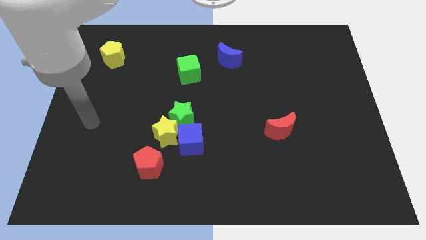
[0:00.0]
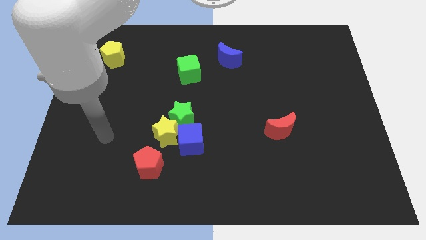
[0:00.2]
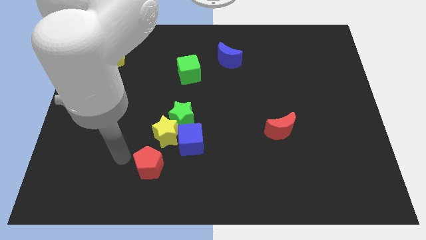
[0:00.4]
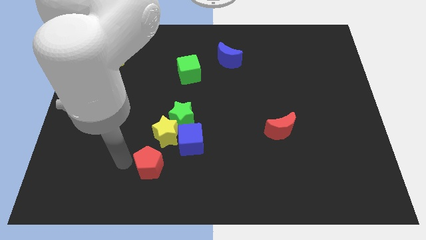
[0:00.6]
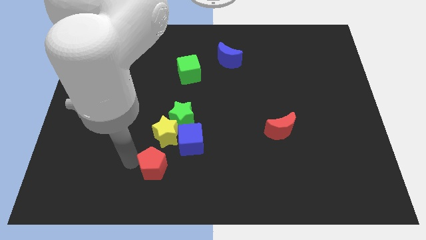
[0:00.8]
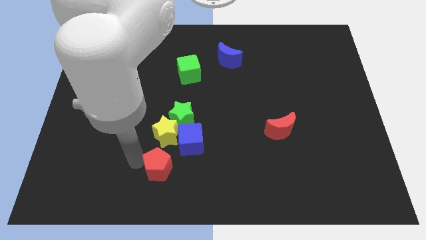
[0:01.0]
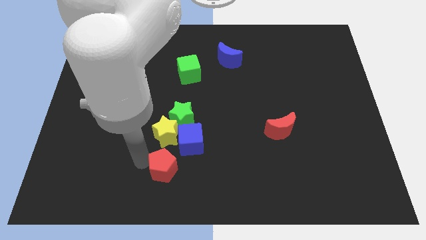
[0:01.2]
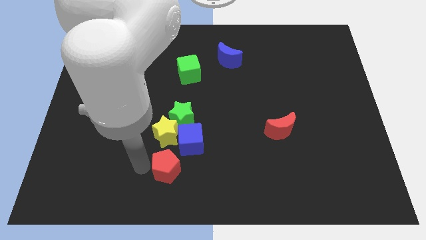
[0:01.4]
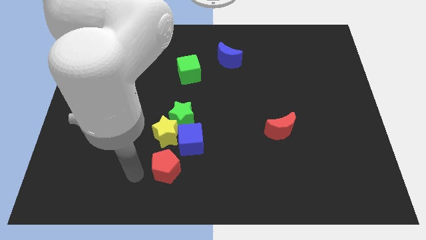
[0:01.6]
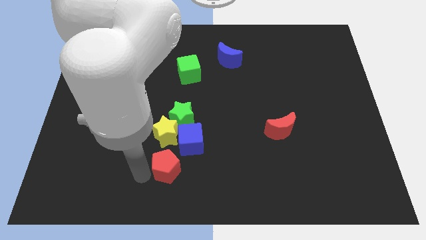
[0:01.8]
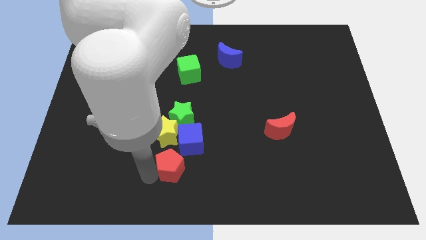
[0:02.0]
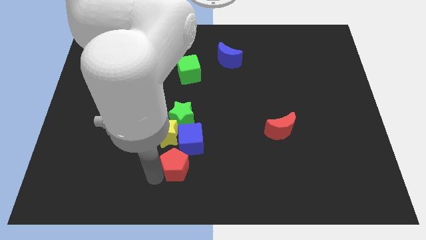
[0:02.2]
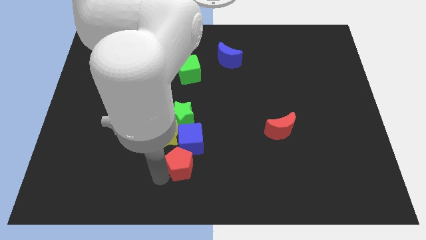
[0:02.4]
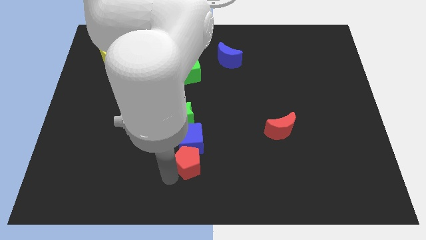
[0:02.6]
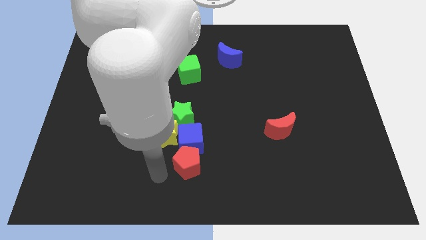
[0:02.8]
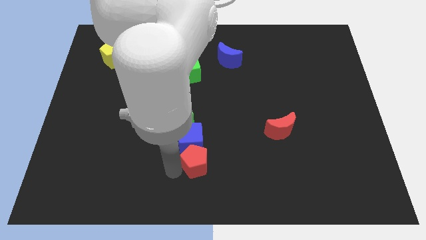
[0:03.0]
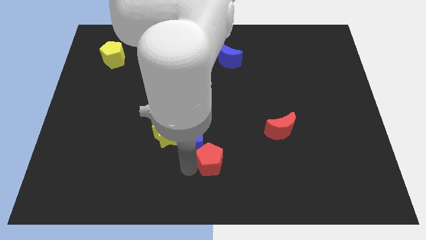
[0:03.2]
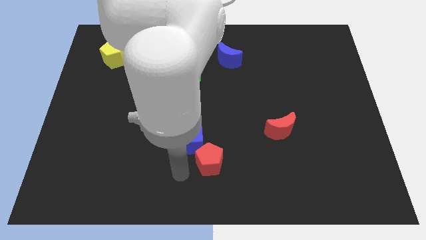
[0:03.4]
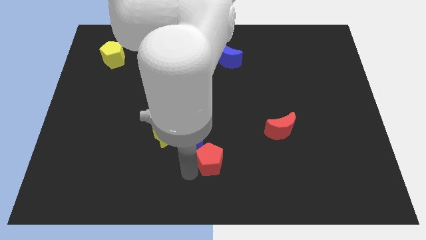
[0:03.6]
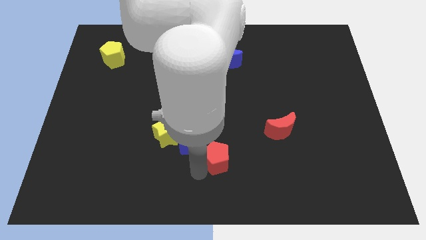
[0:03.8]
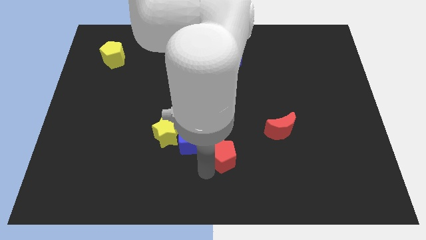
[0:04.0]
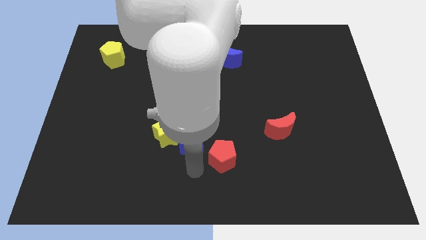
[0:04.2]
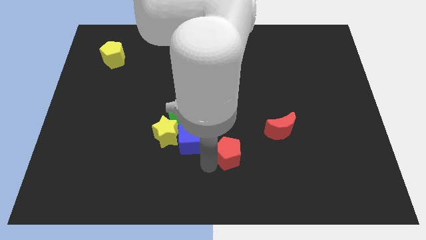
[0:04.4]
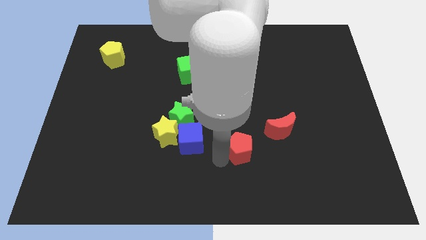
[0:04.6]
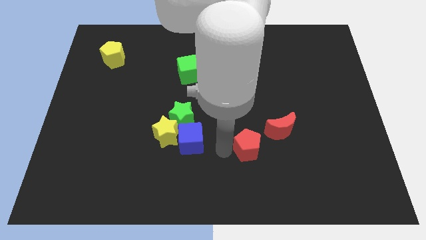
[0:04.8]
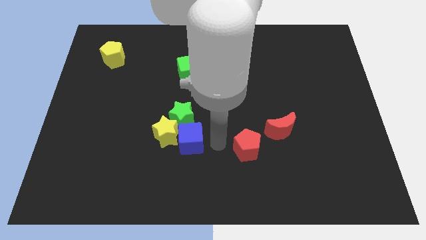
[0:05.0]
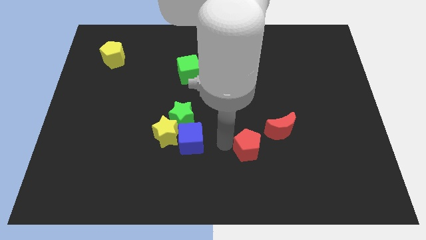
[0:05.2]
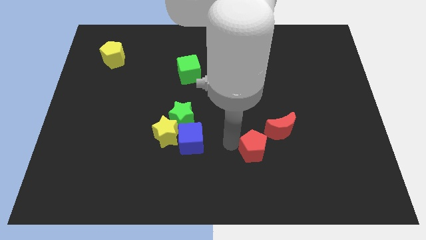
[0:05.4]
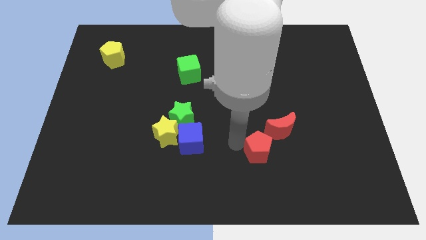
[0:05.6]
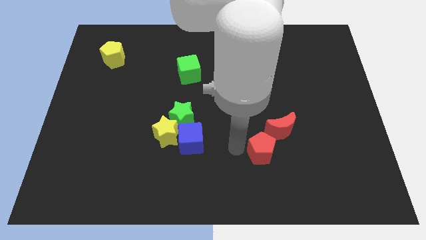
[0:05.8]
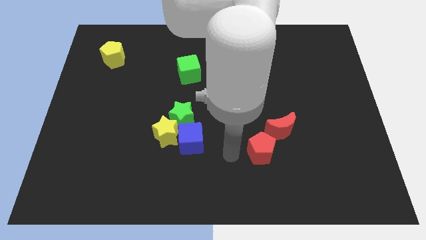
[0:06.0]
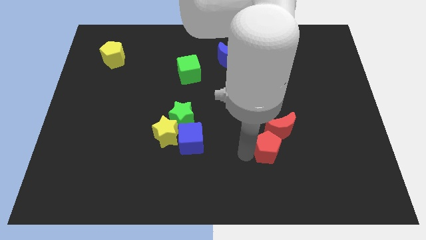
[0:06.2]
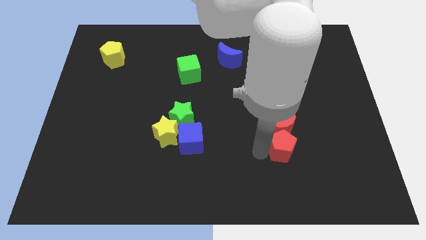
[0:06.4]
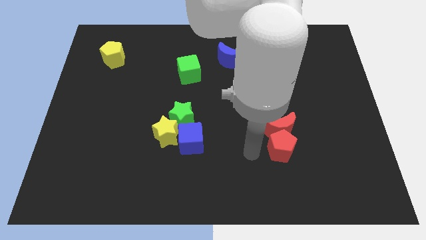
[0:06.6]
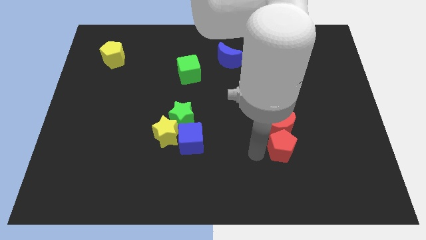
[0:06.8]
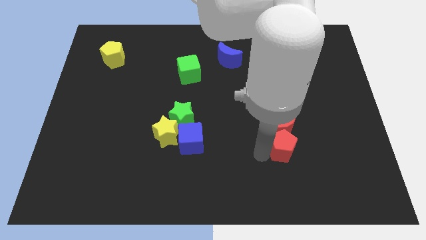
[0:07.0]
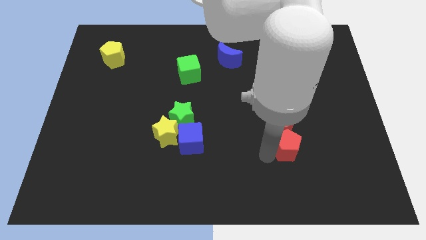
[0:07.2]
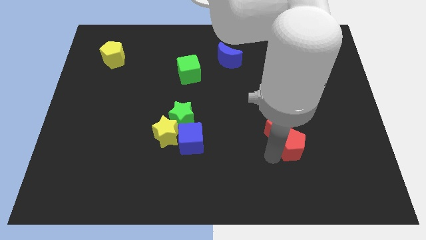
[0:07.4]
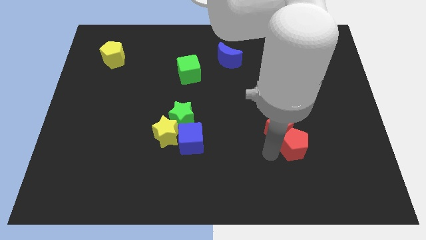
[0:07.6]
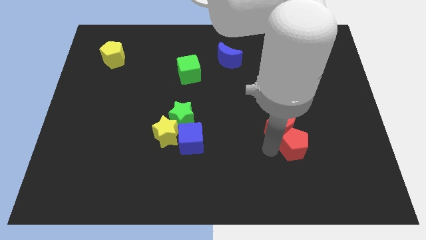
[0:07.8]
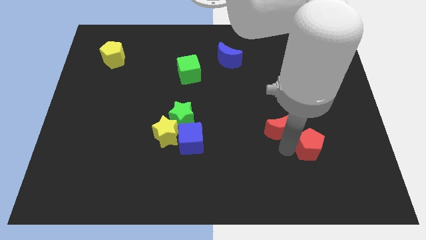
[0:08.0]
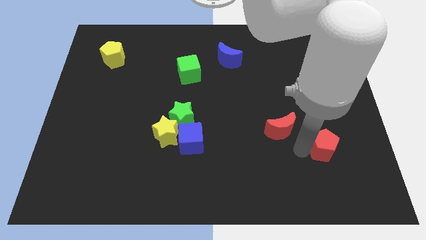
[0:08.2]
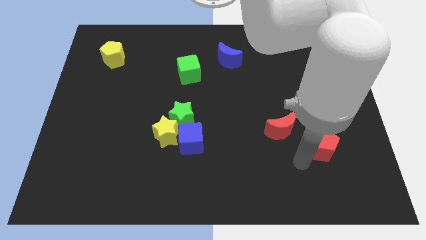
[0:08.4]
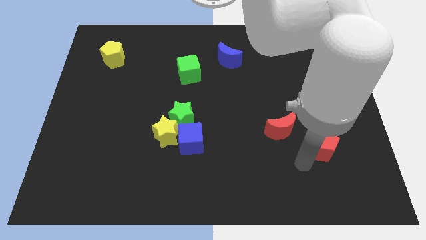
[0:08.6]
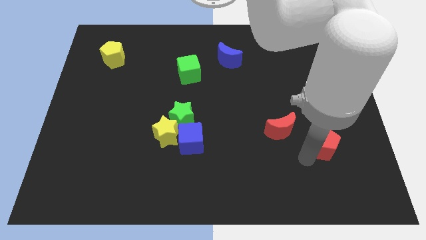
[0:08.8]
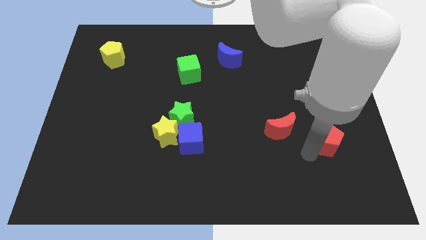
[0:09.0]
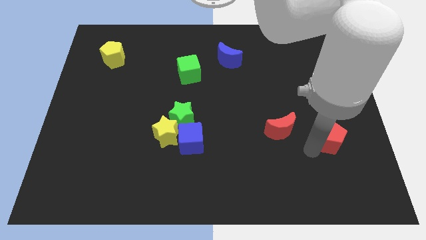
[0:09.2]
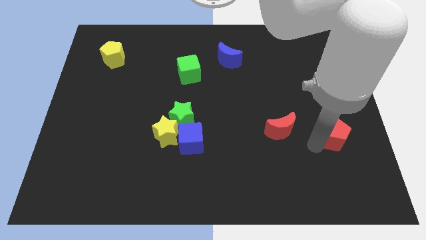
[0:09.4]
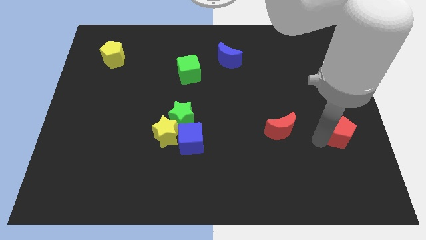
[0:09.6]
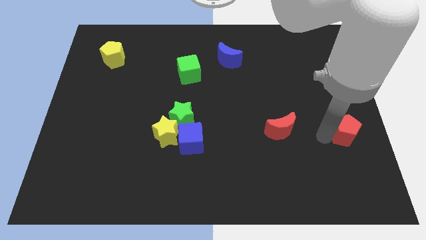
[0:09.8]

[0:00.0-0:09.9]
push the red pentagon to the center right

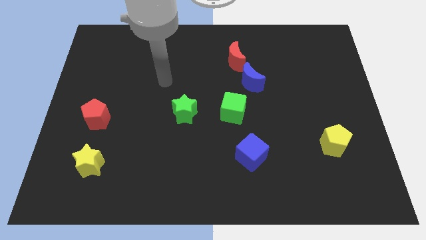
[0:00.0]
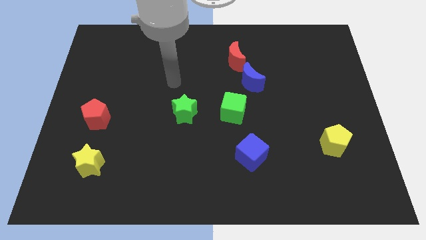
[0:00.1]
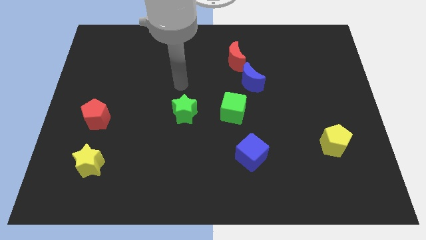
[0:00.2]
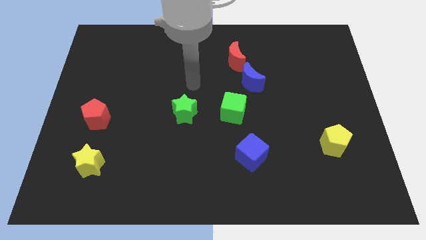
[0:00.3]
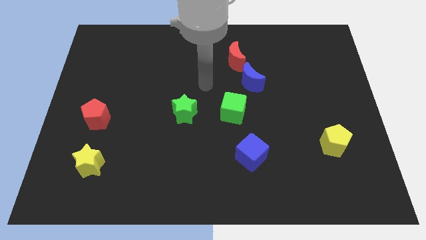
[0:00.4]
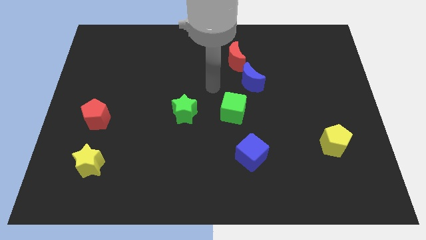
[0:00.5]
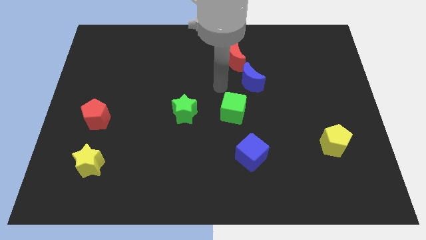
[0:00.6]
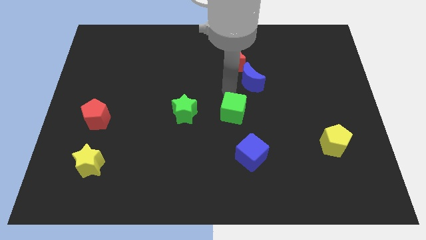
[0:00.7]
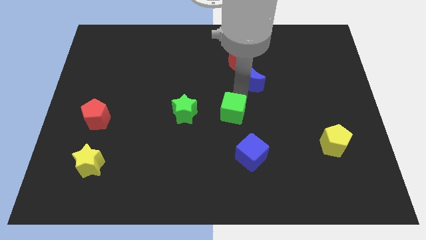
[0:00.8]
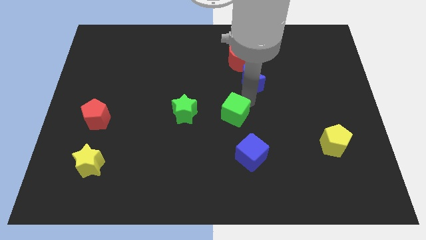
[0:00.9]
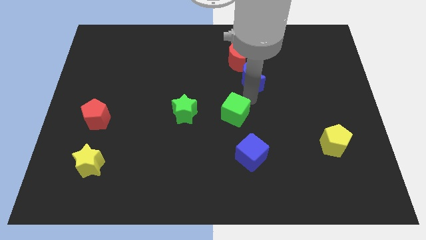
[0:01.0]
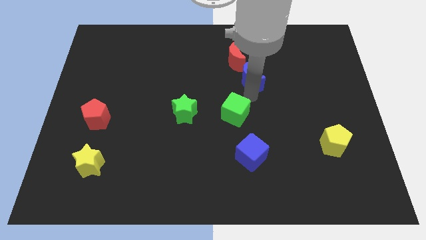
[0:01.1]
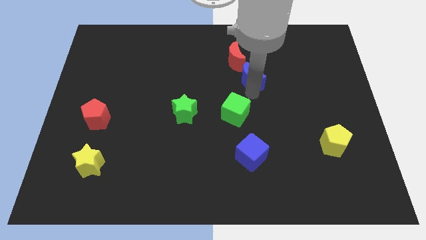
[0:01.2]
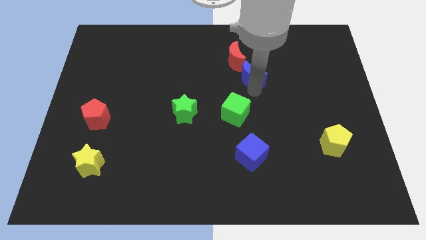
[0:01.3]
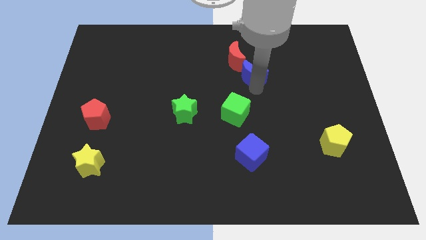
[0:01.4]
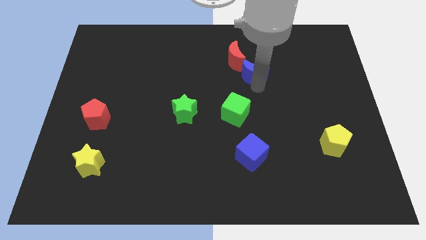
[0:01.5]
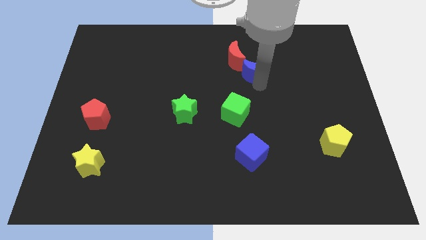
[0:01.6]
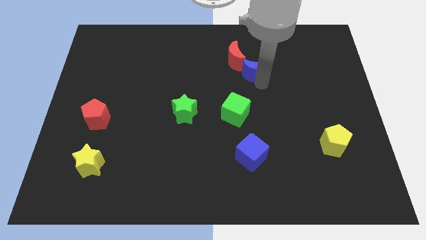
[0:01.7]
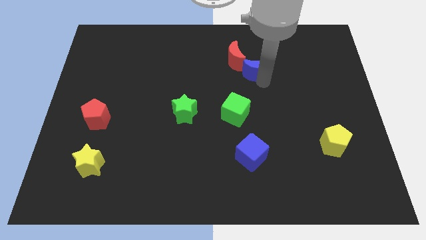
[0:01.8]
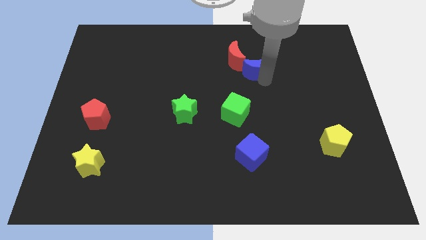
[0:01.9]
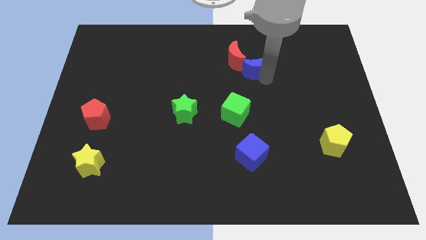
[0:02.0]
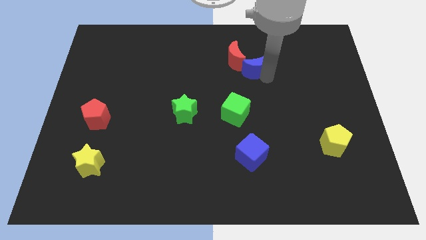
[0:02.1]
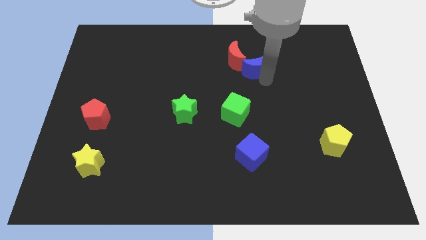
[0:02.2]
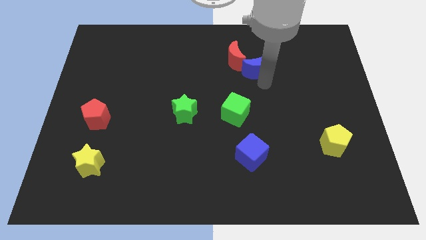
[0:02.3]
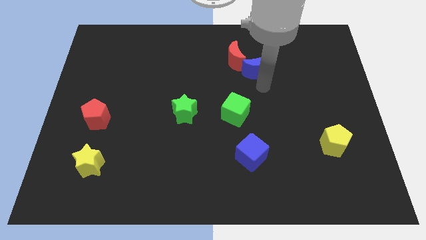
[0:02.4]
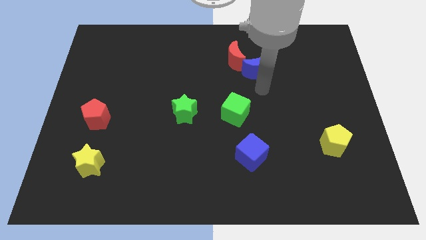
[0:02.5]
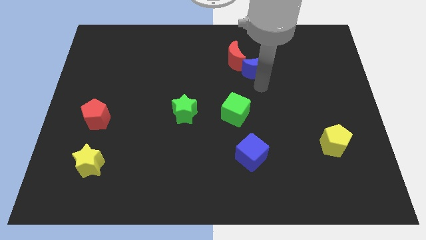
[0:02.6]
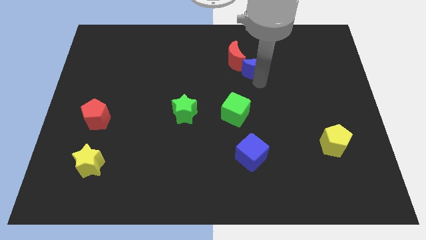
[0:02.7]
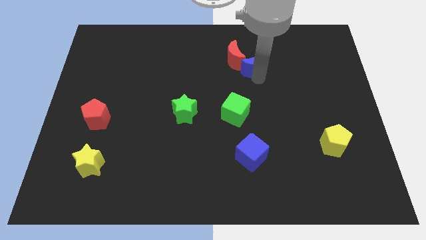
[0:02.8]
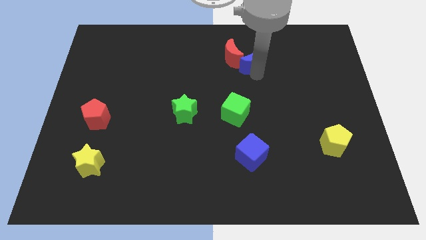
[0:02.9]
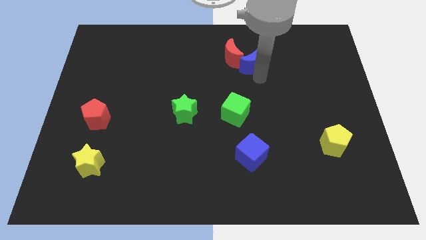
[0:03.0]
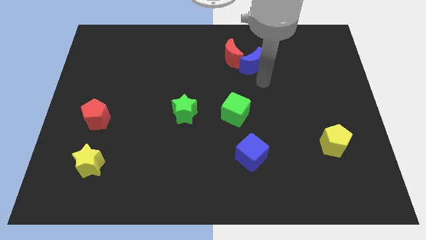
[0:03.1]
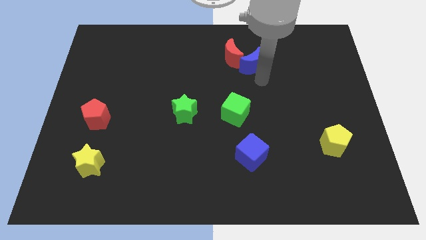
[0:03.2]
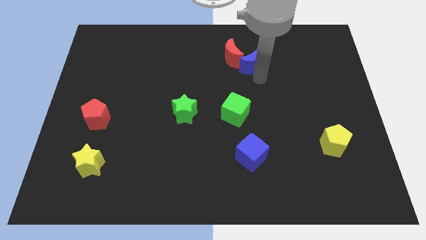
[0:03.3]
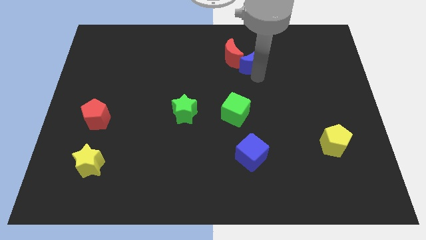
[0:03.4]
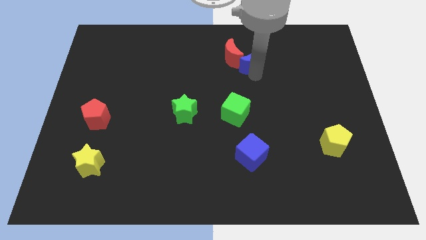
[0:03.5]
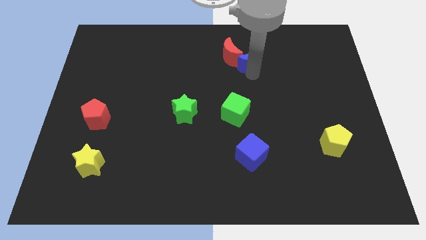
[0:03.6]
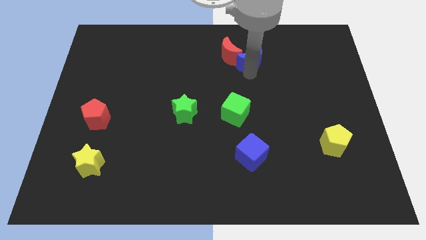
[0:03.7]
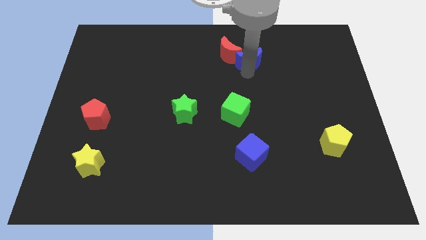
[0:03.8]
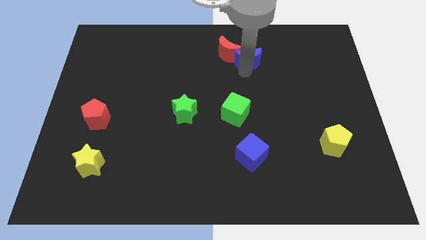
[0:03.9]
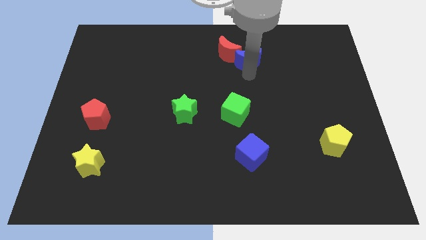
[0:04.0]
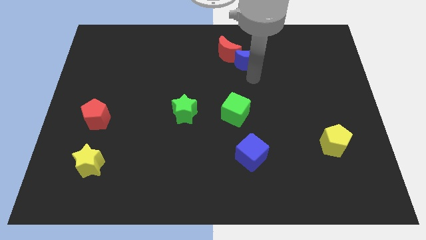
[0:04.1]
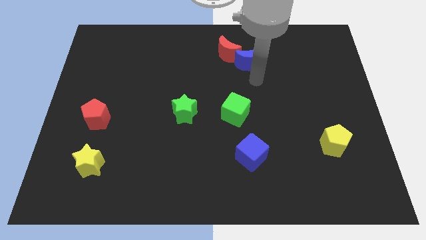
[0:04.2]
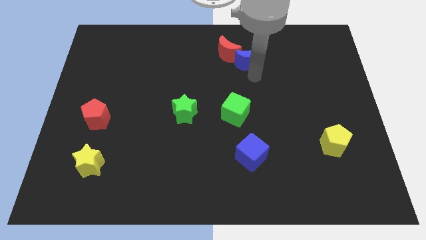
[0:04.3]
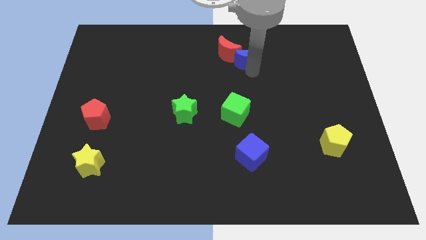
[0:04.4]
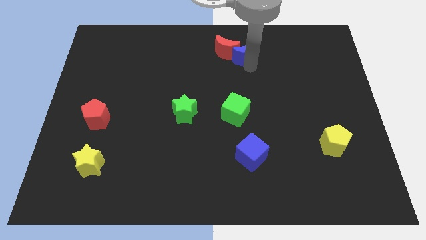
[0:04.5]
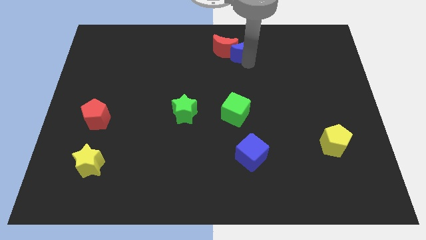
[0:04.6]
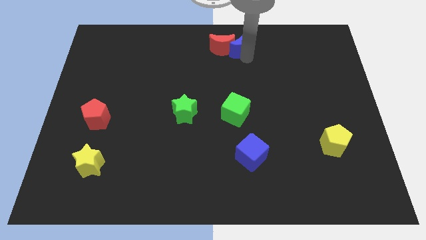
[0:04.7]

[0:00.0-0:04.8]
push the blue moon to the top
